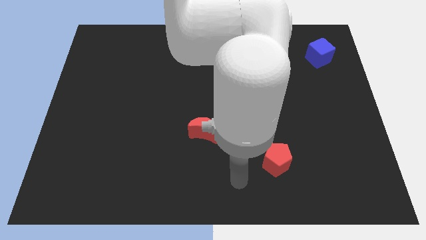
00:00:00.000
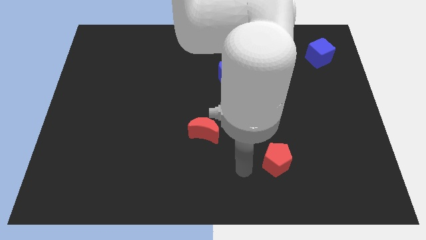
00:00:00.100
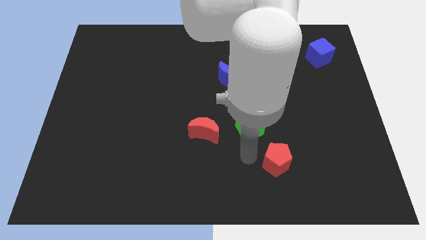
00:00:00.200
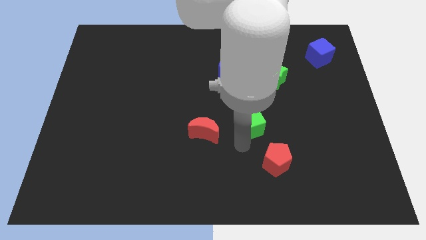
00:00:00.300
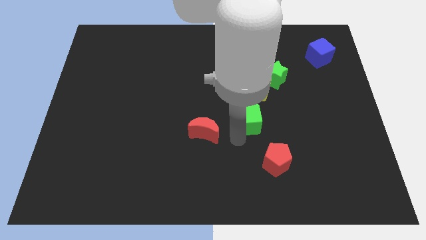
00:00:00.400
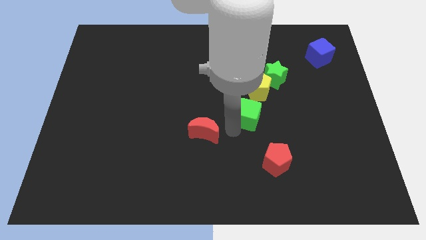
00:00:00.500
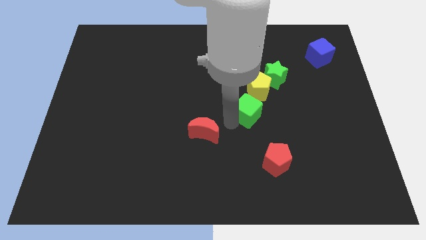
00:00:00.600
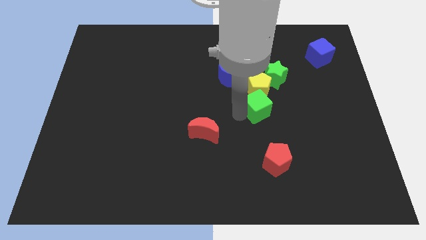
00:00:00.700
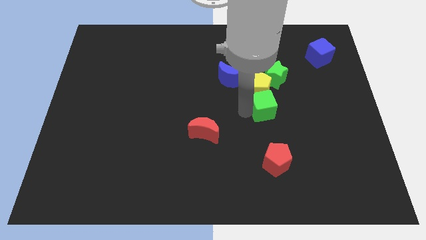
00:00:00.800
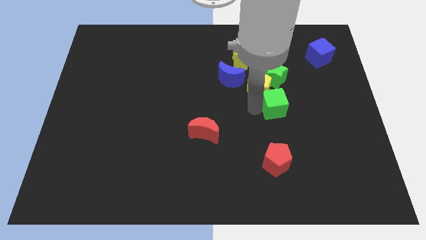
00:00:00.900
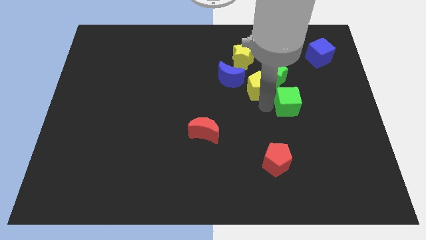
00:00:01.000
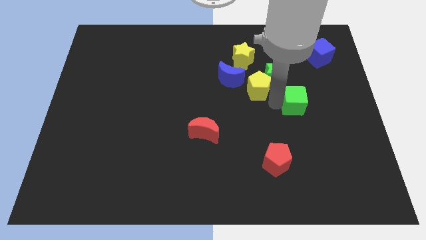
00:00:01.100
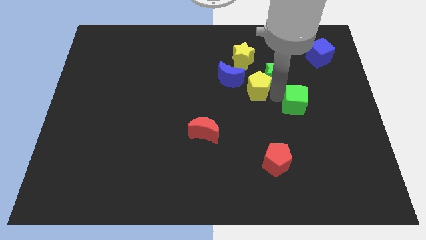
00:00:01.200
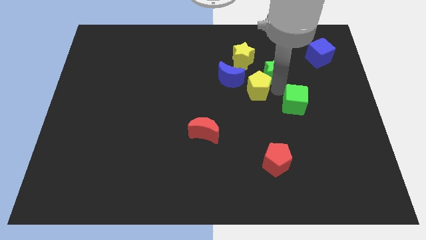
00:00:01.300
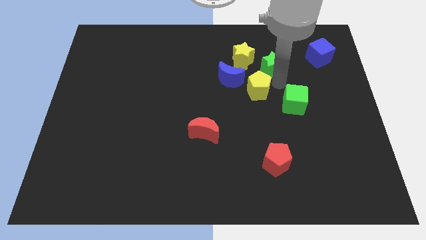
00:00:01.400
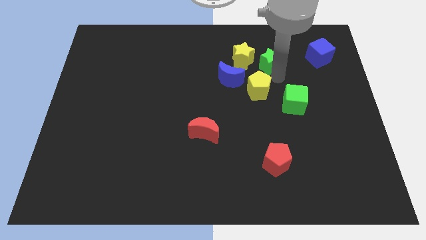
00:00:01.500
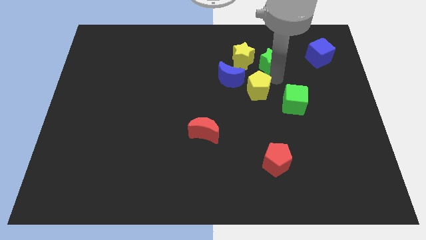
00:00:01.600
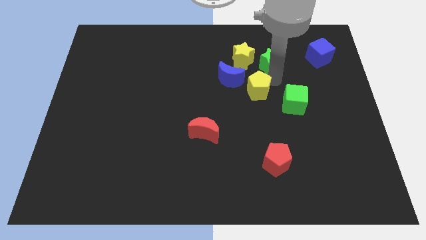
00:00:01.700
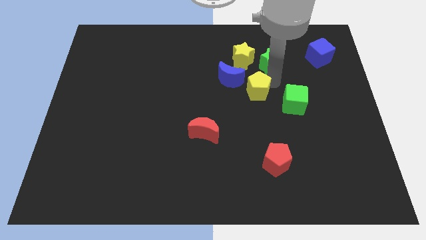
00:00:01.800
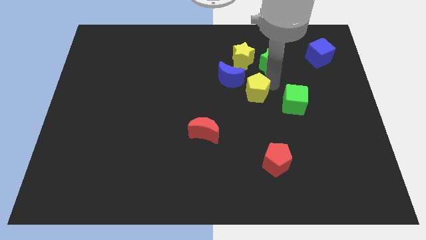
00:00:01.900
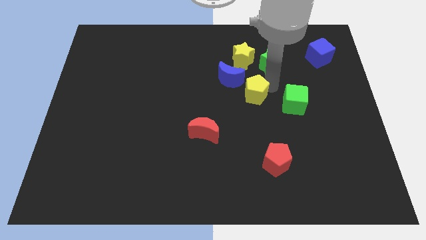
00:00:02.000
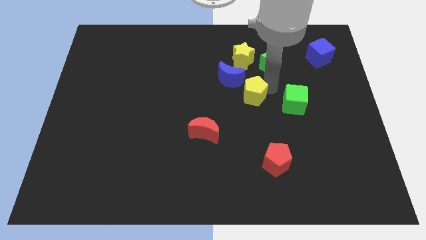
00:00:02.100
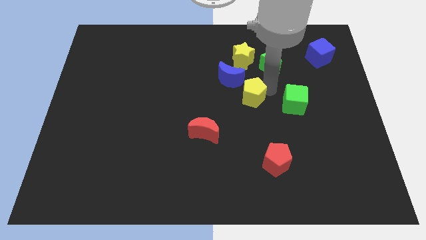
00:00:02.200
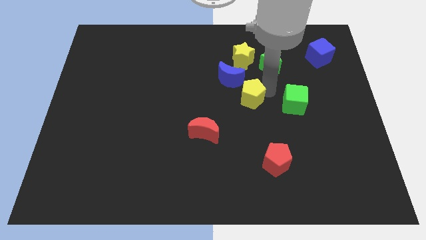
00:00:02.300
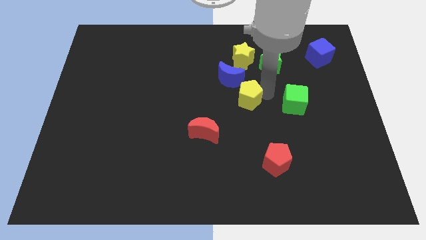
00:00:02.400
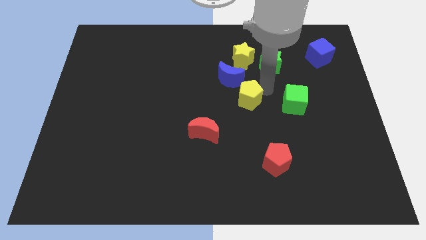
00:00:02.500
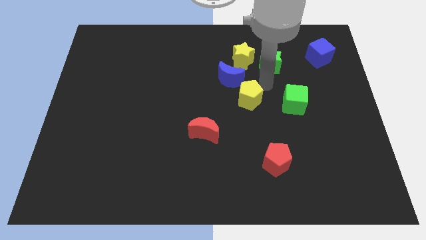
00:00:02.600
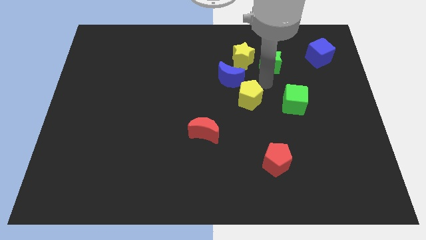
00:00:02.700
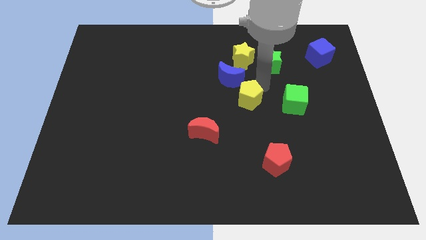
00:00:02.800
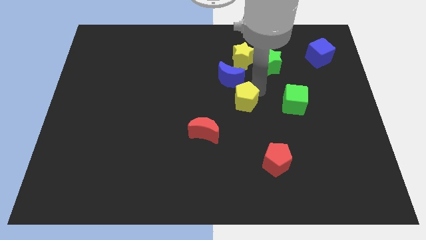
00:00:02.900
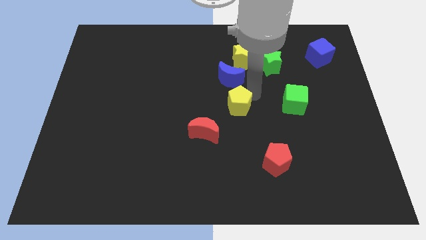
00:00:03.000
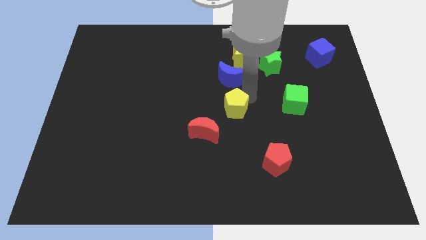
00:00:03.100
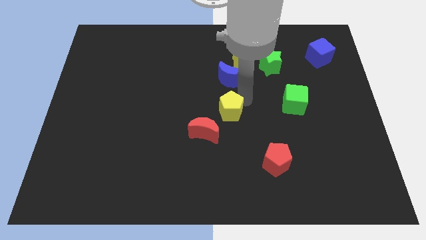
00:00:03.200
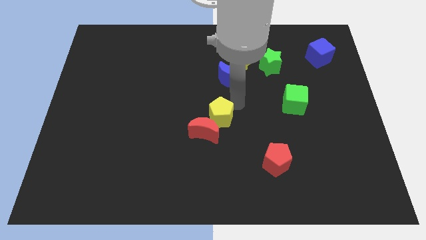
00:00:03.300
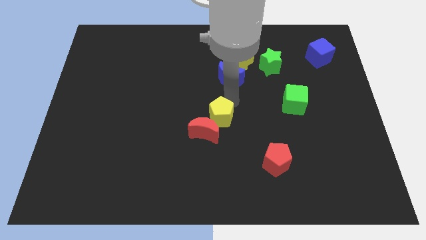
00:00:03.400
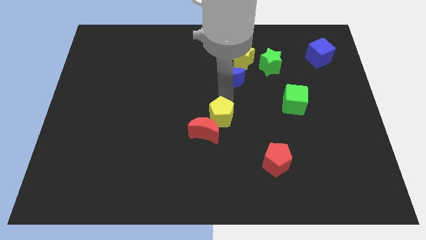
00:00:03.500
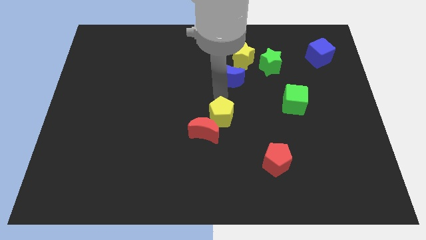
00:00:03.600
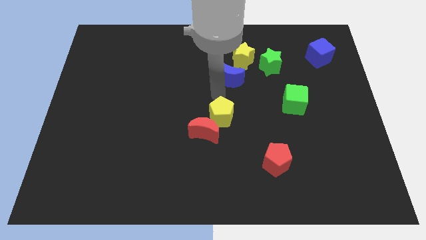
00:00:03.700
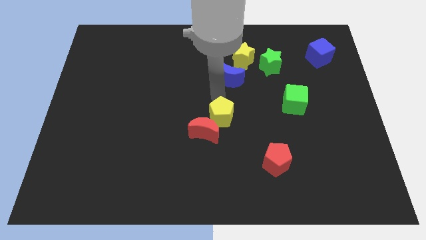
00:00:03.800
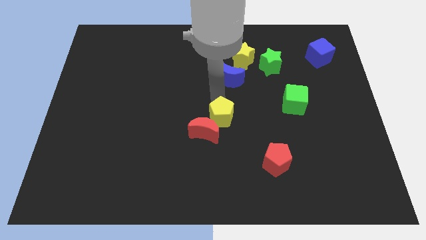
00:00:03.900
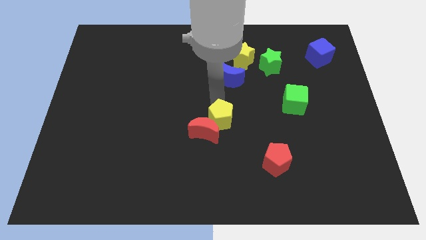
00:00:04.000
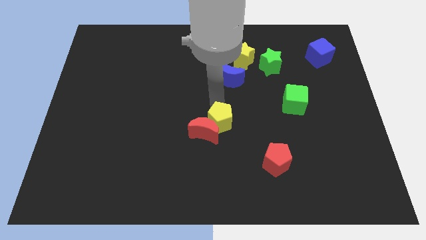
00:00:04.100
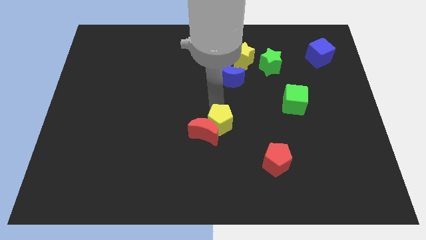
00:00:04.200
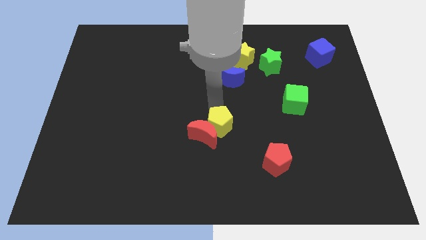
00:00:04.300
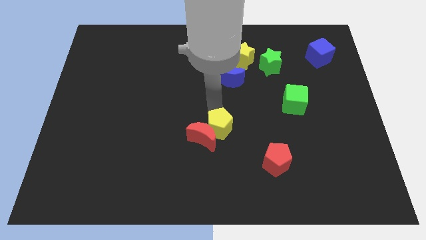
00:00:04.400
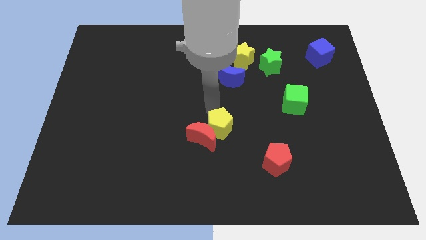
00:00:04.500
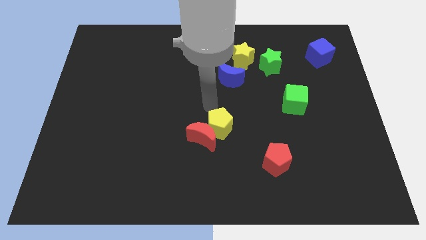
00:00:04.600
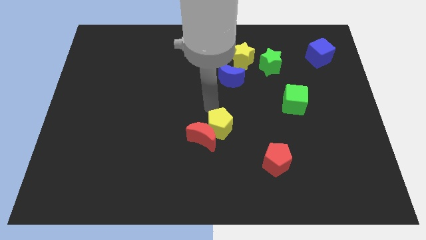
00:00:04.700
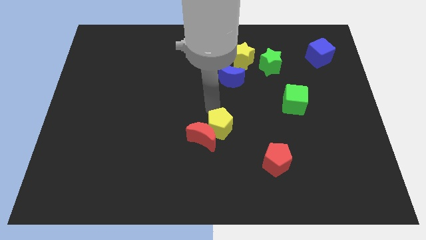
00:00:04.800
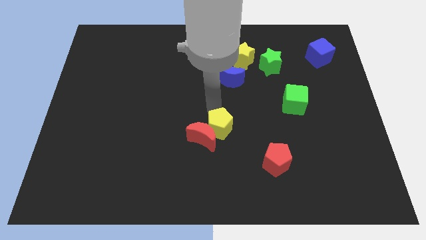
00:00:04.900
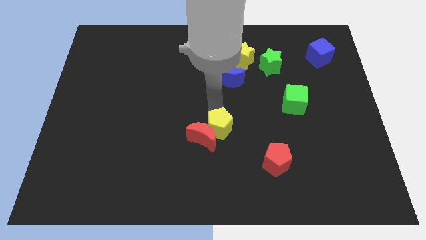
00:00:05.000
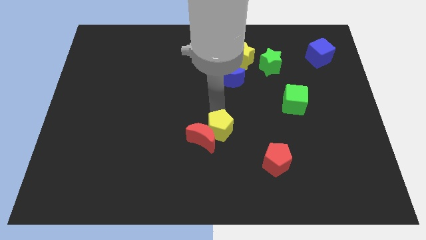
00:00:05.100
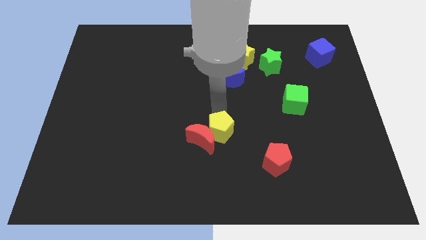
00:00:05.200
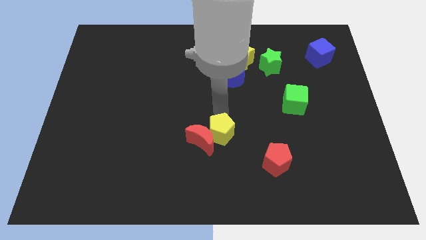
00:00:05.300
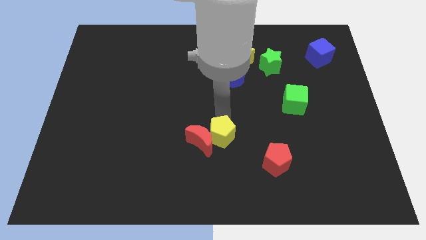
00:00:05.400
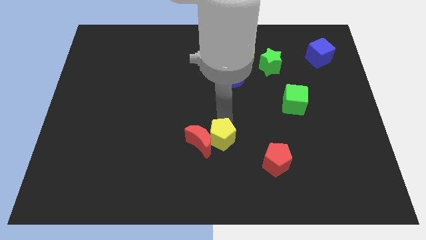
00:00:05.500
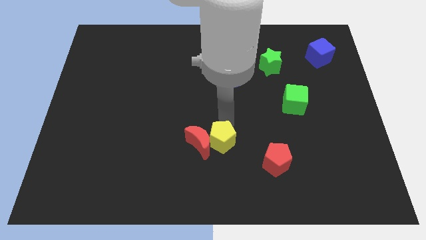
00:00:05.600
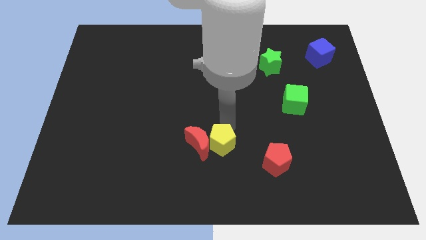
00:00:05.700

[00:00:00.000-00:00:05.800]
push the yellow pentagon to the left of the red pentagon
